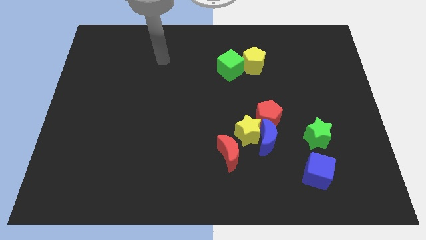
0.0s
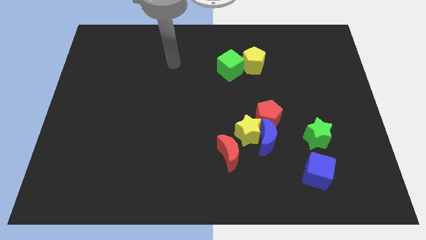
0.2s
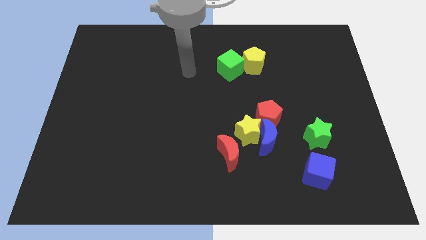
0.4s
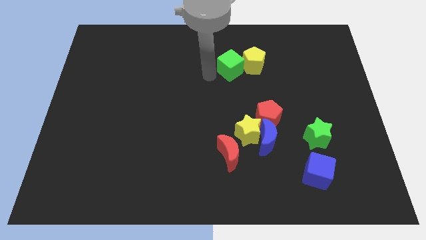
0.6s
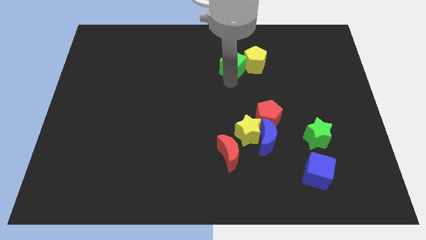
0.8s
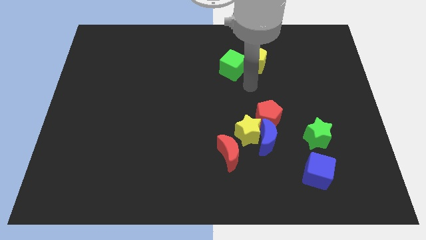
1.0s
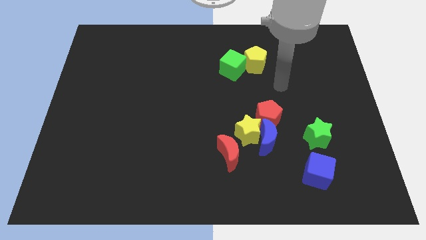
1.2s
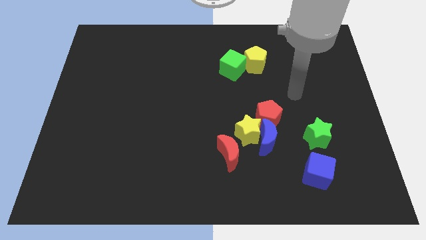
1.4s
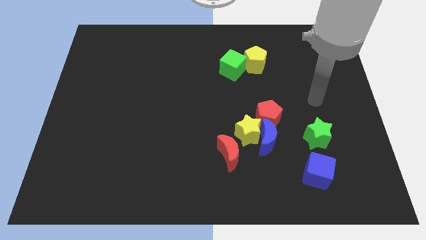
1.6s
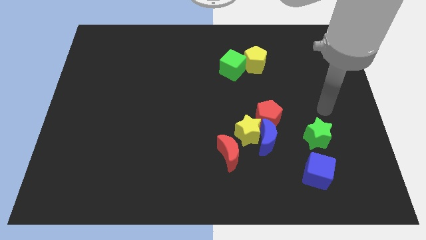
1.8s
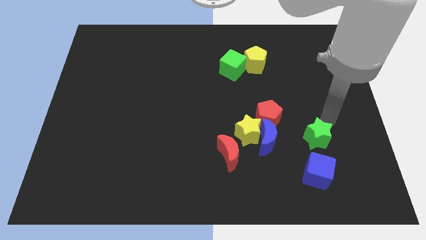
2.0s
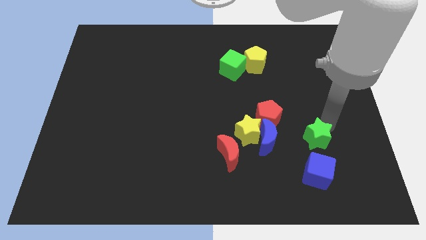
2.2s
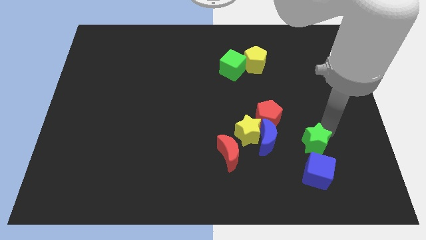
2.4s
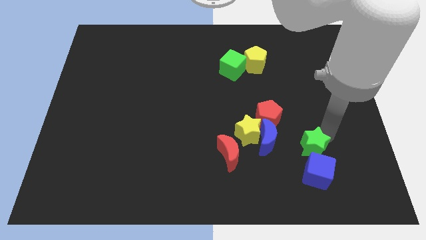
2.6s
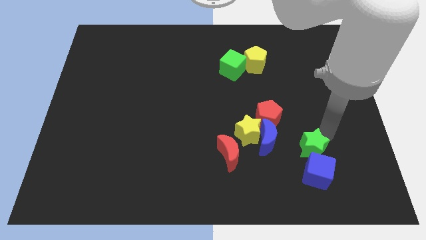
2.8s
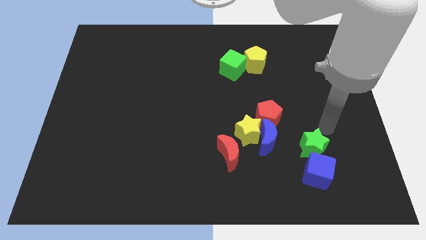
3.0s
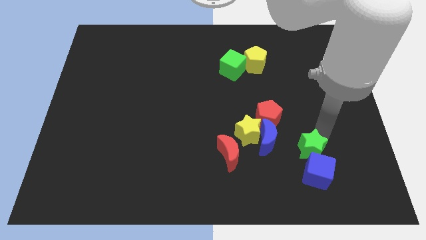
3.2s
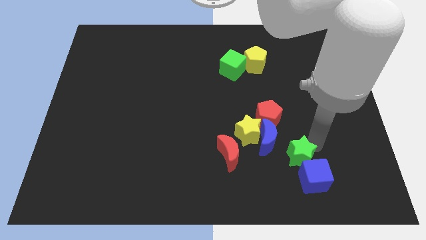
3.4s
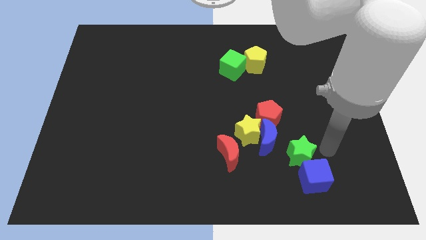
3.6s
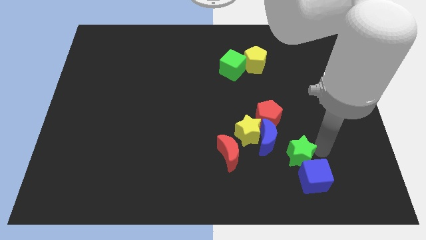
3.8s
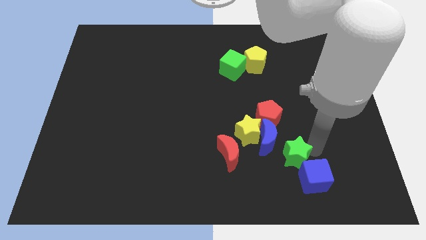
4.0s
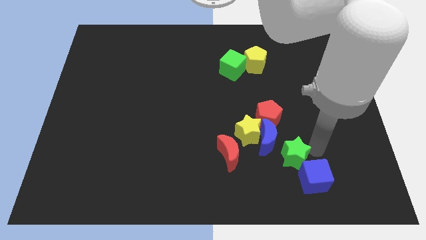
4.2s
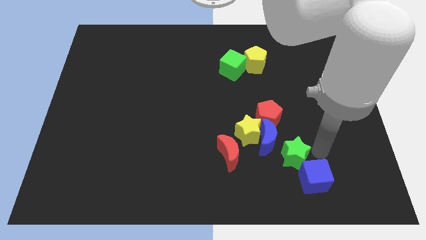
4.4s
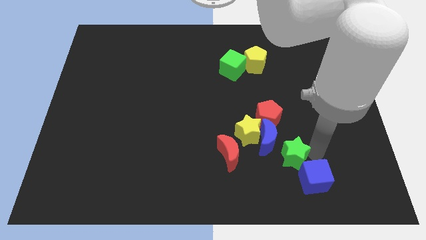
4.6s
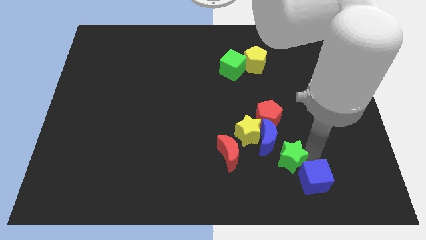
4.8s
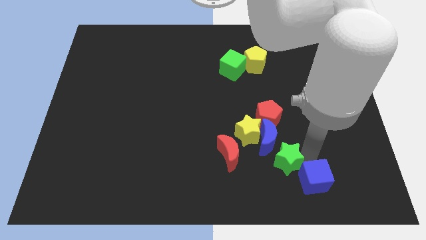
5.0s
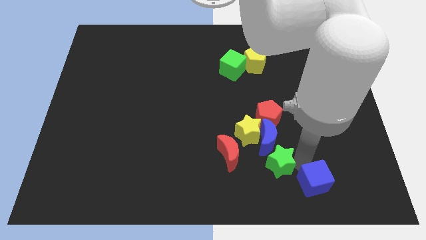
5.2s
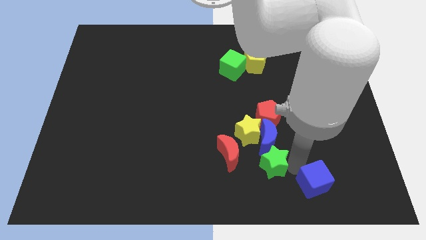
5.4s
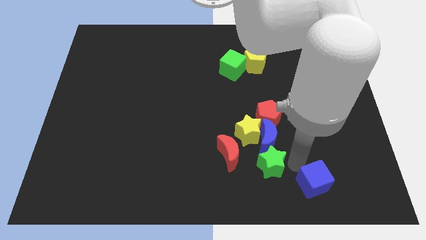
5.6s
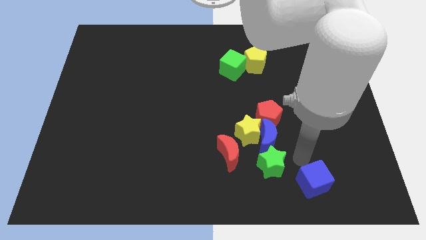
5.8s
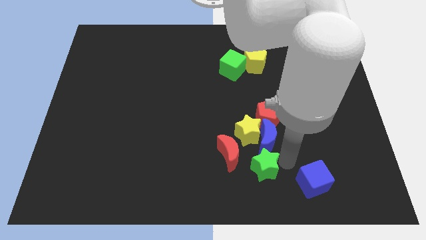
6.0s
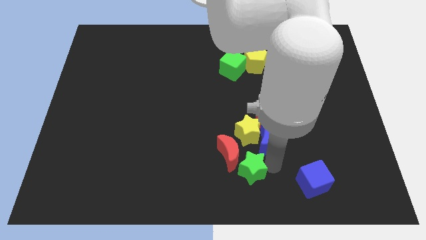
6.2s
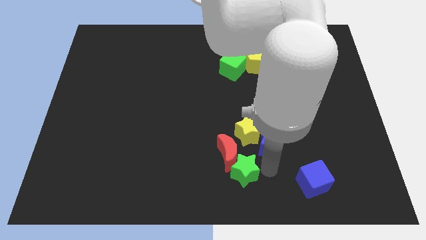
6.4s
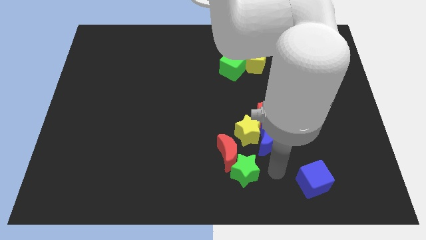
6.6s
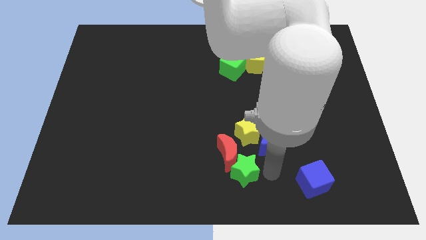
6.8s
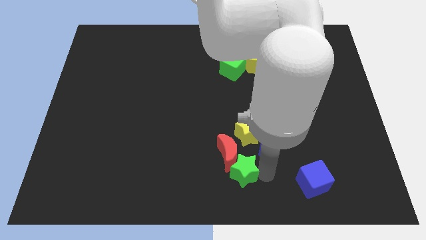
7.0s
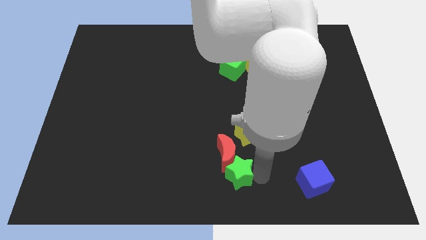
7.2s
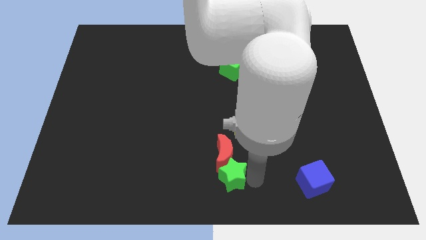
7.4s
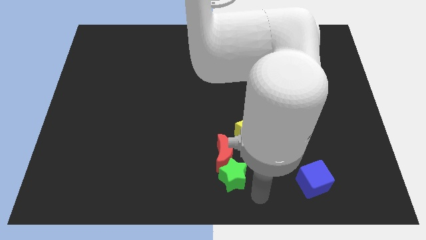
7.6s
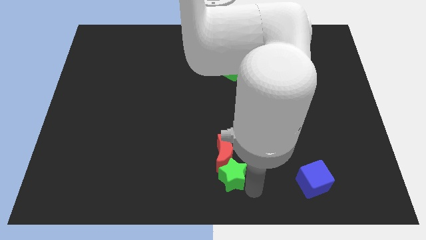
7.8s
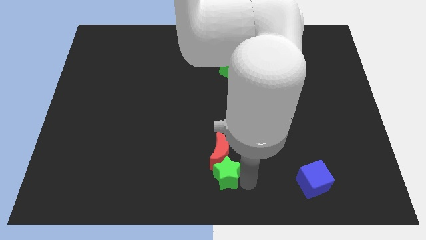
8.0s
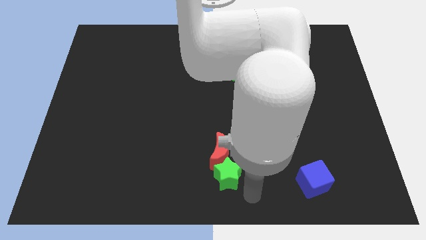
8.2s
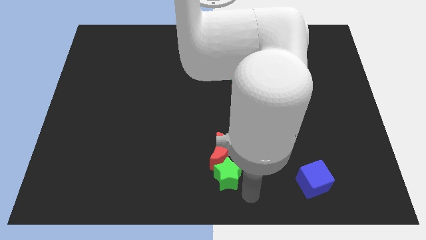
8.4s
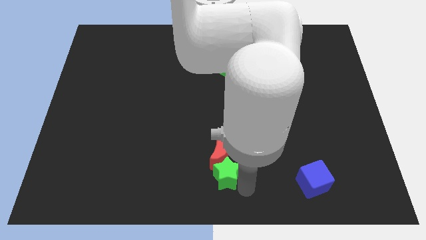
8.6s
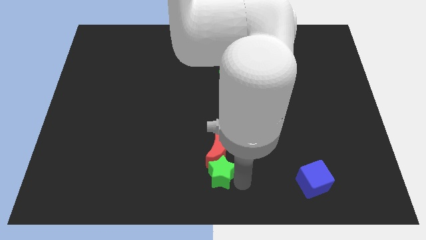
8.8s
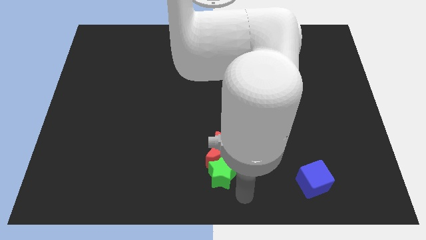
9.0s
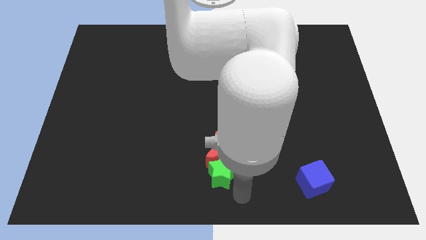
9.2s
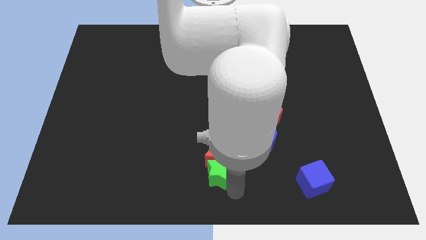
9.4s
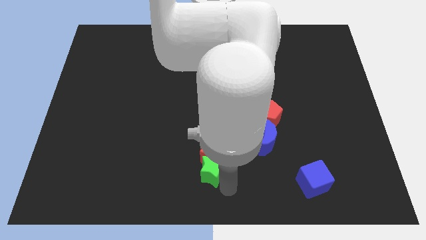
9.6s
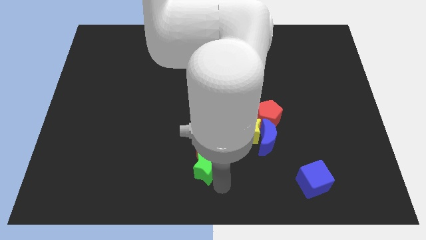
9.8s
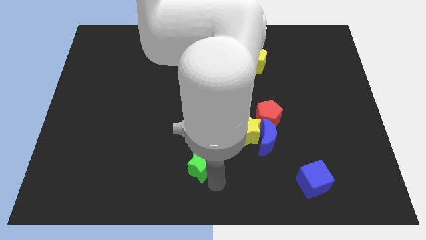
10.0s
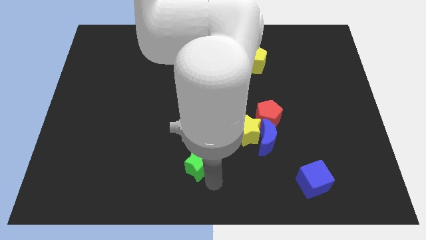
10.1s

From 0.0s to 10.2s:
put the green star left of the red moon

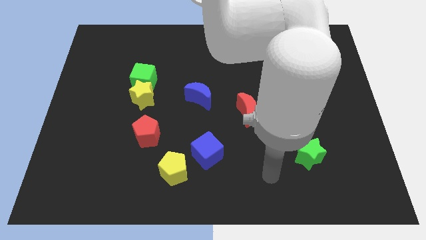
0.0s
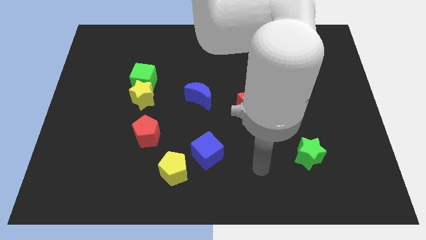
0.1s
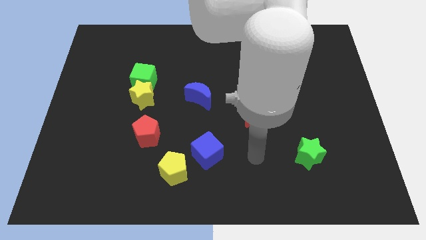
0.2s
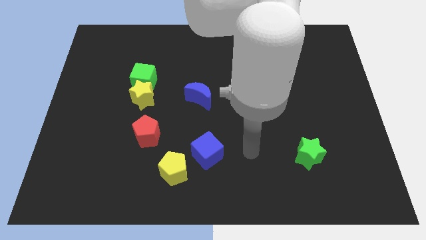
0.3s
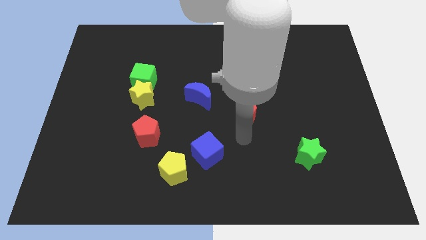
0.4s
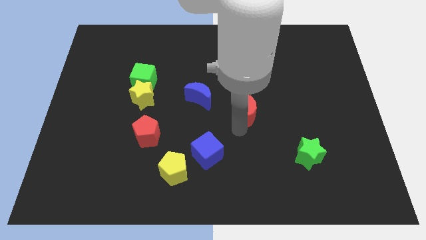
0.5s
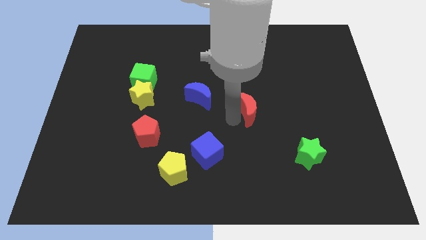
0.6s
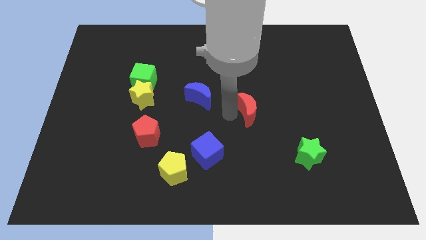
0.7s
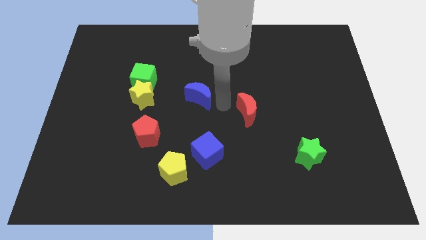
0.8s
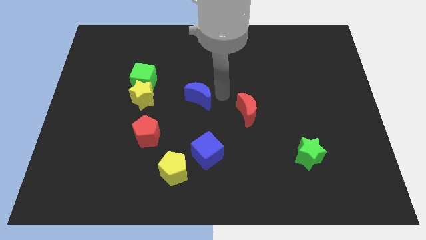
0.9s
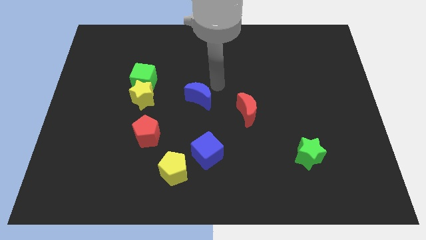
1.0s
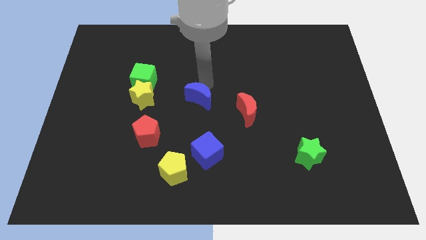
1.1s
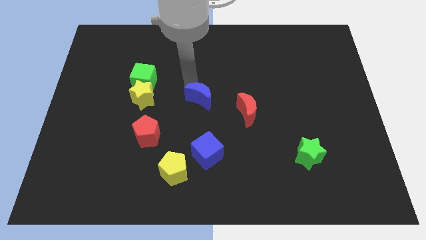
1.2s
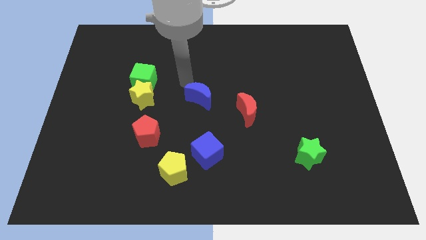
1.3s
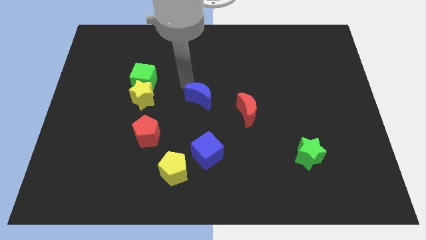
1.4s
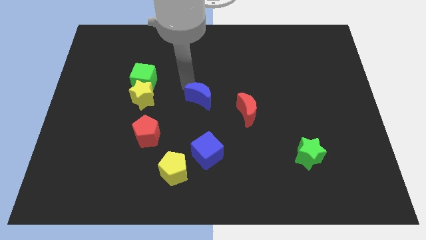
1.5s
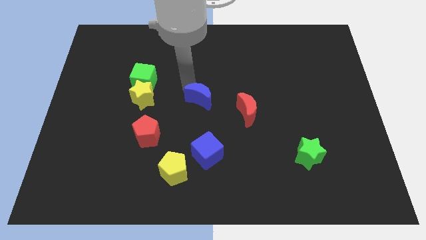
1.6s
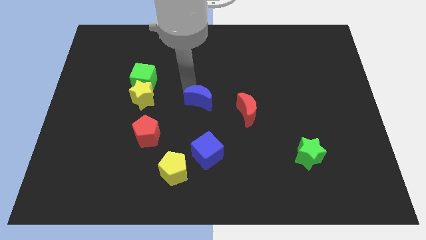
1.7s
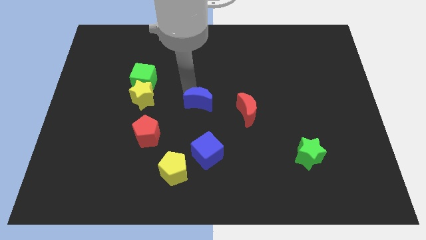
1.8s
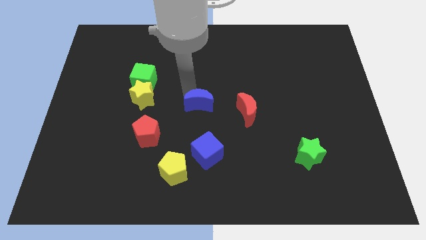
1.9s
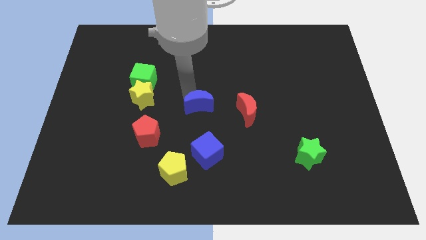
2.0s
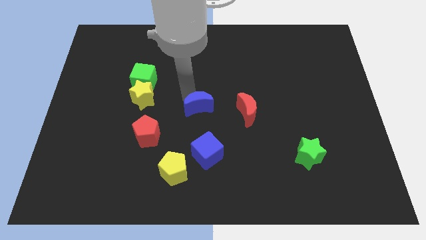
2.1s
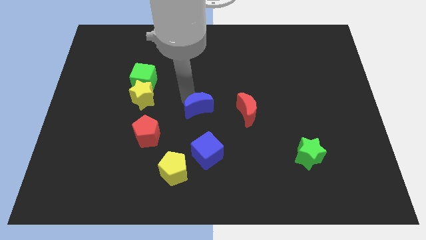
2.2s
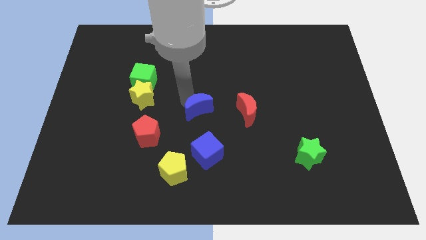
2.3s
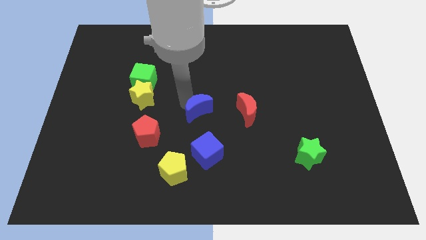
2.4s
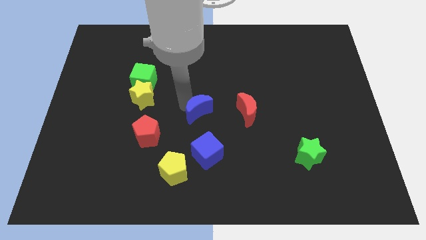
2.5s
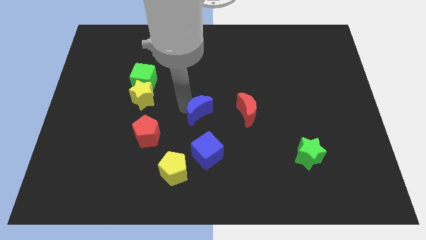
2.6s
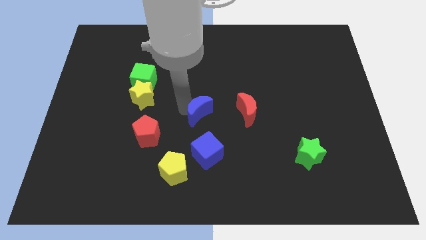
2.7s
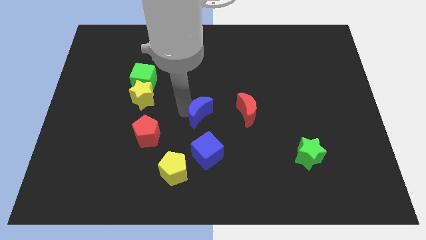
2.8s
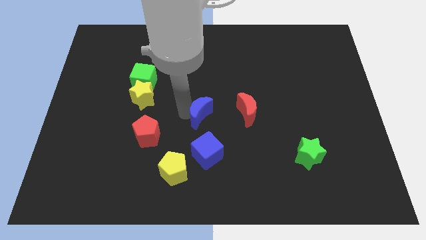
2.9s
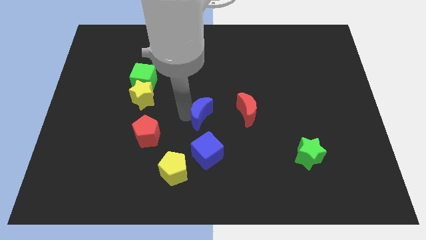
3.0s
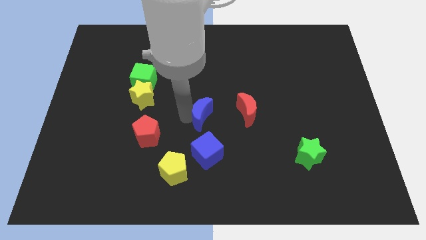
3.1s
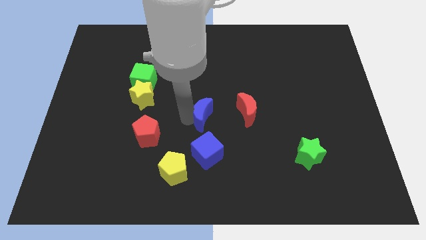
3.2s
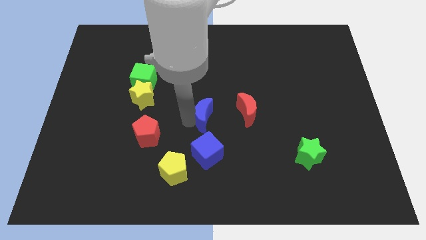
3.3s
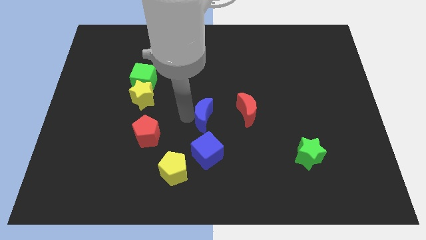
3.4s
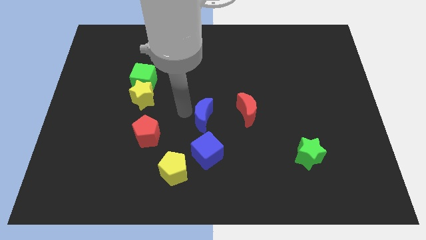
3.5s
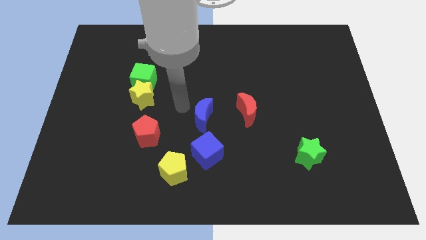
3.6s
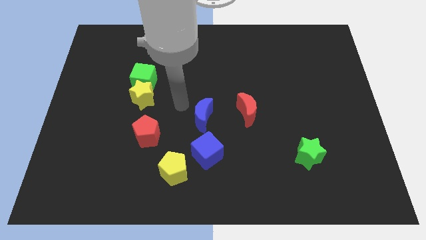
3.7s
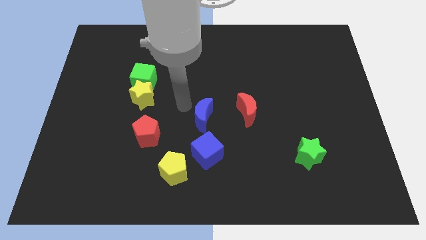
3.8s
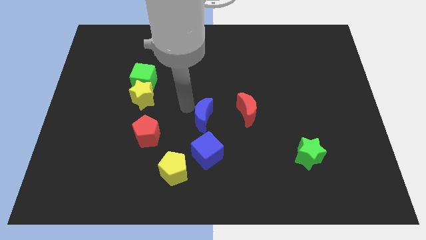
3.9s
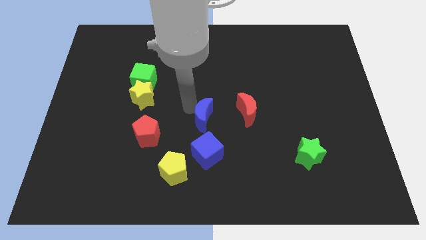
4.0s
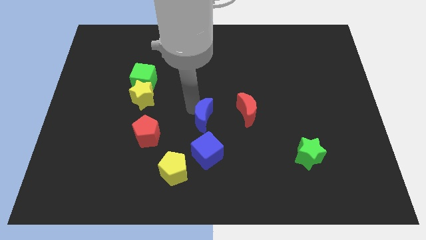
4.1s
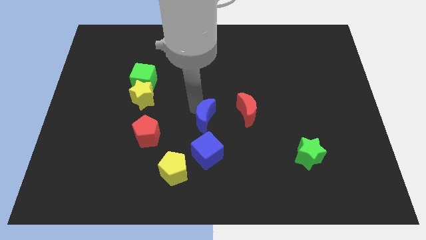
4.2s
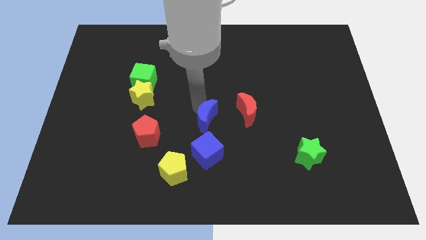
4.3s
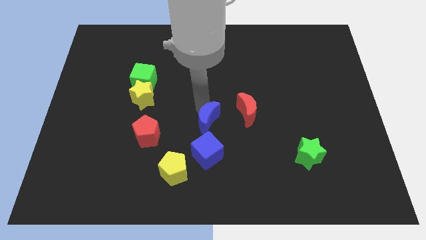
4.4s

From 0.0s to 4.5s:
slide the blue moon to the bottom left of the red moon
